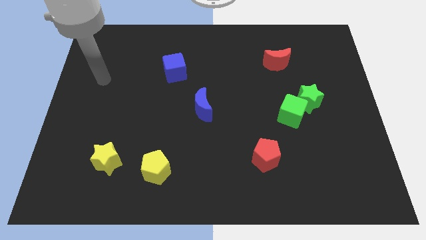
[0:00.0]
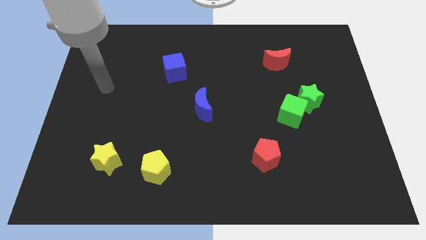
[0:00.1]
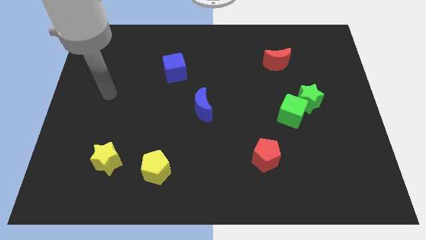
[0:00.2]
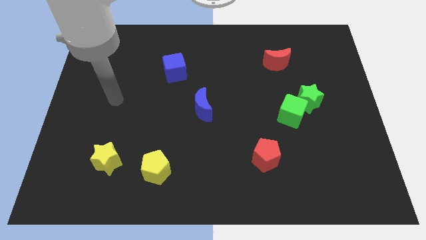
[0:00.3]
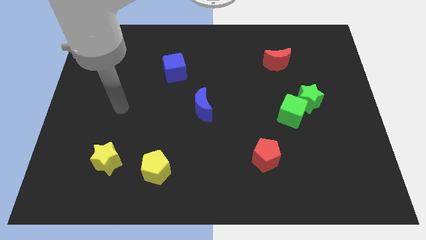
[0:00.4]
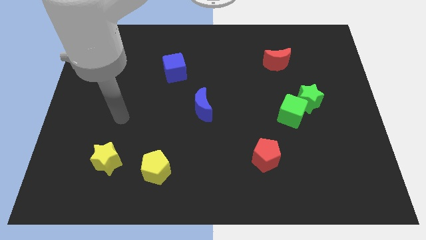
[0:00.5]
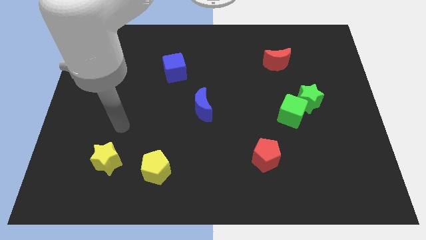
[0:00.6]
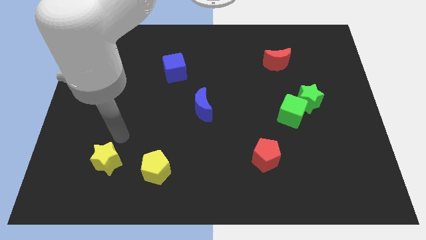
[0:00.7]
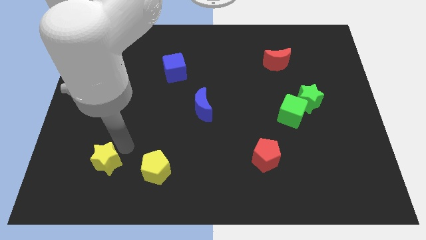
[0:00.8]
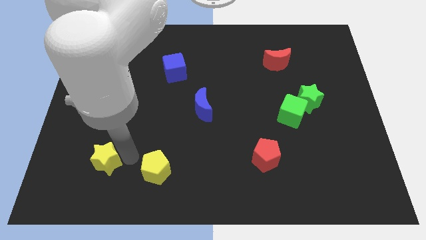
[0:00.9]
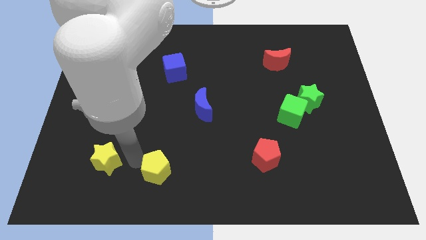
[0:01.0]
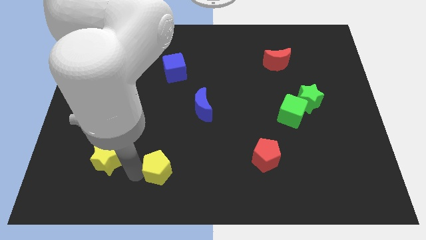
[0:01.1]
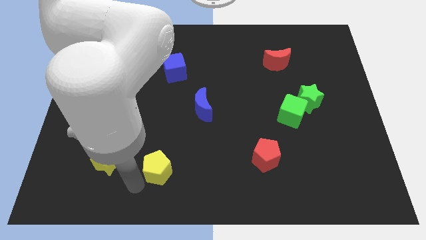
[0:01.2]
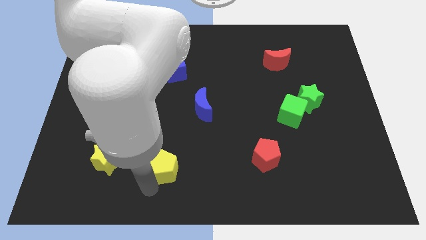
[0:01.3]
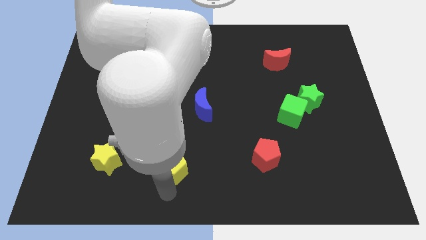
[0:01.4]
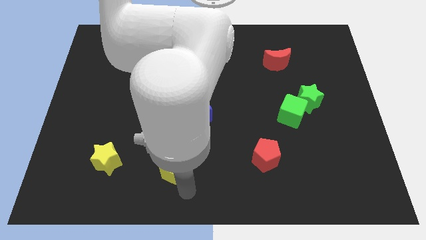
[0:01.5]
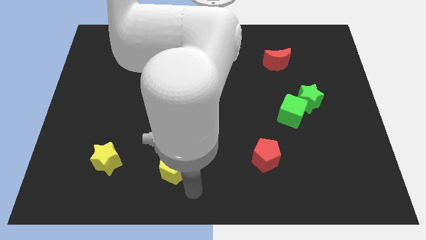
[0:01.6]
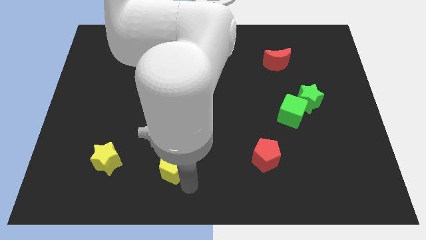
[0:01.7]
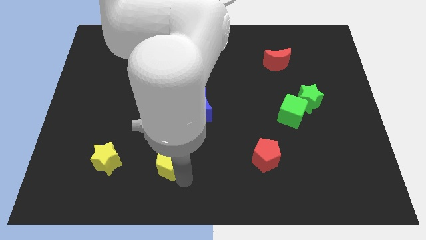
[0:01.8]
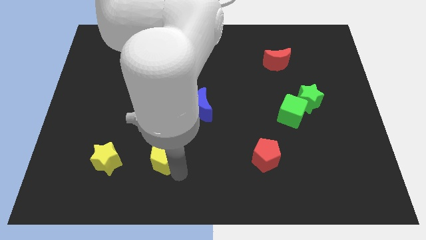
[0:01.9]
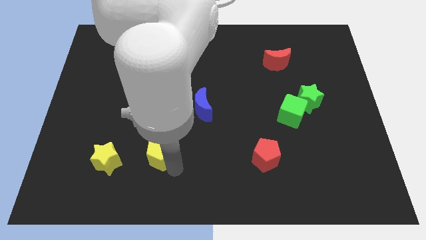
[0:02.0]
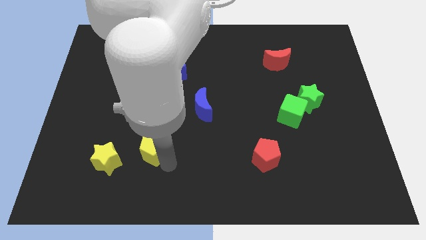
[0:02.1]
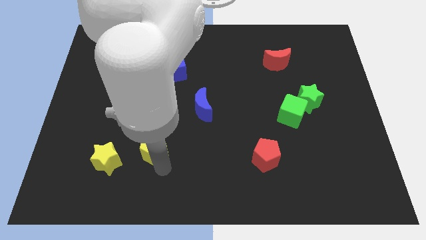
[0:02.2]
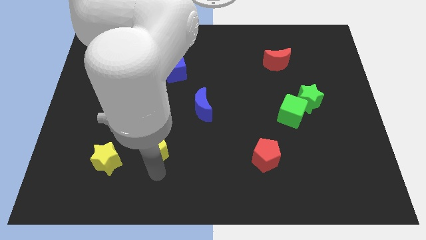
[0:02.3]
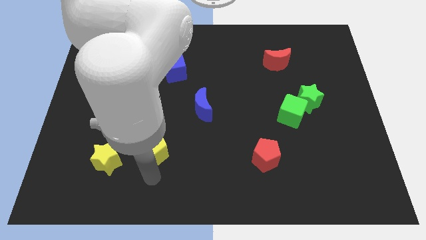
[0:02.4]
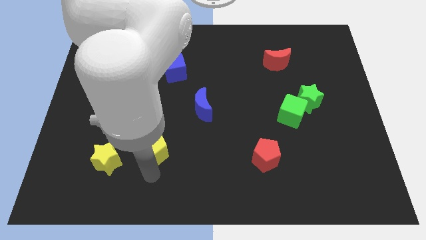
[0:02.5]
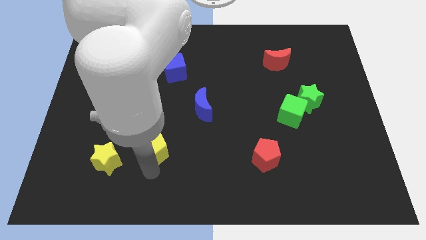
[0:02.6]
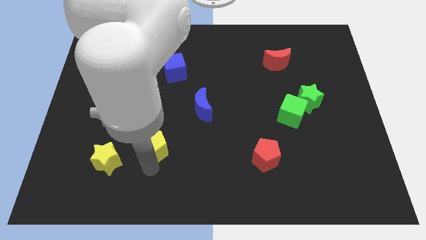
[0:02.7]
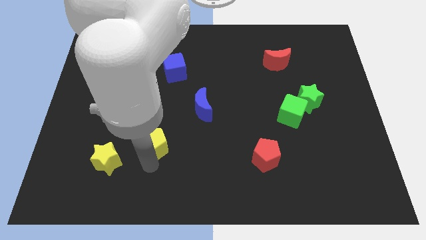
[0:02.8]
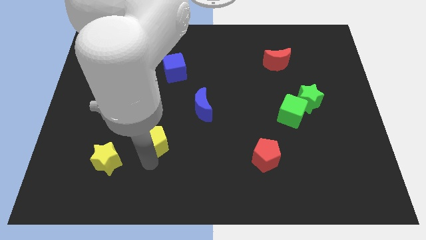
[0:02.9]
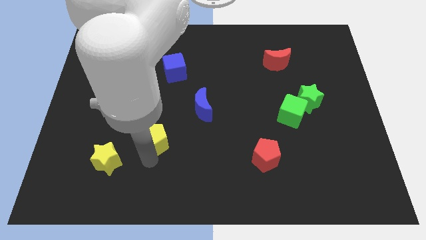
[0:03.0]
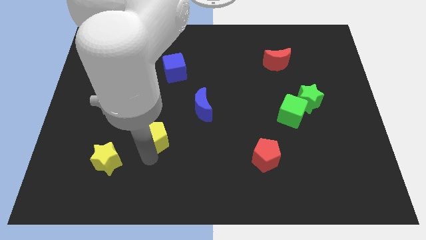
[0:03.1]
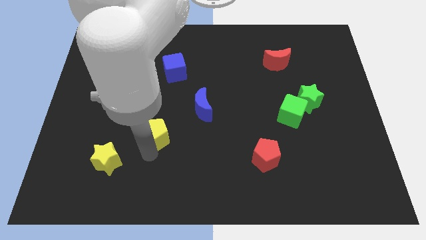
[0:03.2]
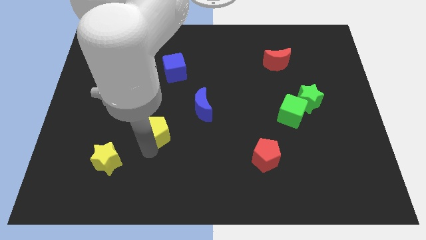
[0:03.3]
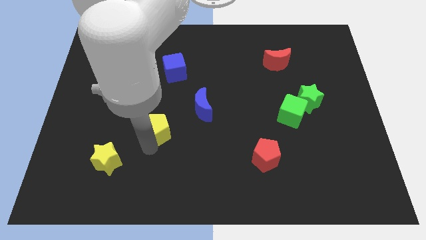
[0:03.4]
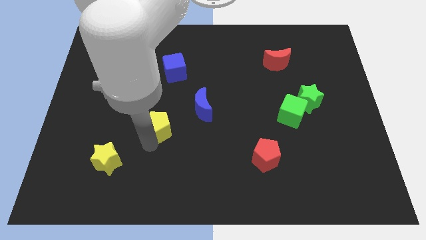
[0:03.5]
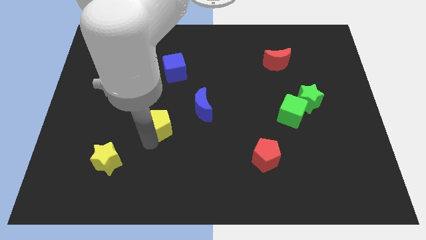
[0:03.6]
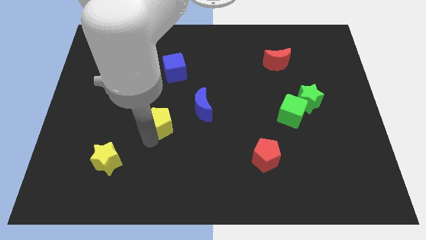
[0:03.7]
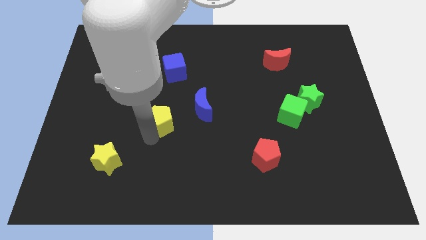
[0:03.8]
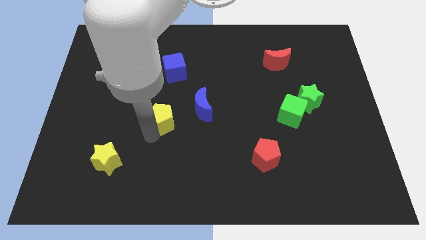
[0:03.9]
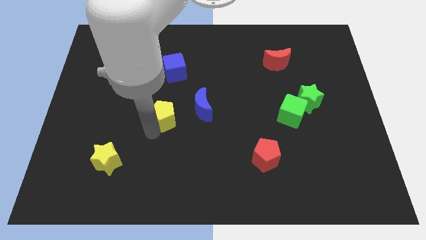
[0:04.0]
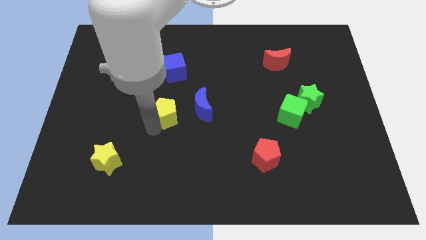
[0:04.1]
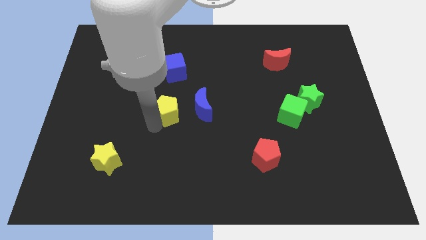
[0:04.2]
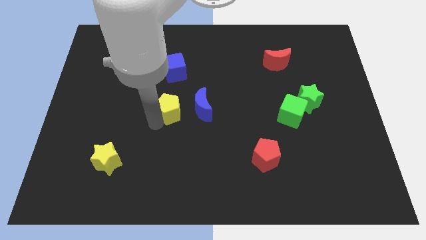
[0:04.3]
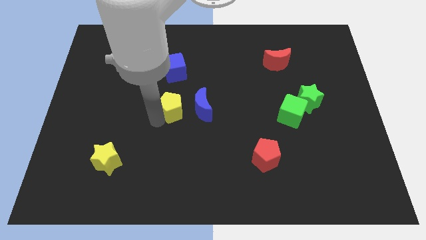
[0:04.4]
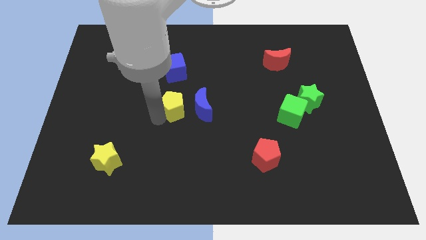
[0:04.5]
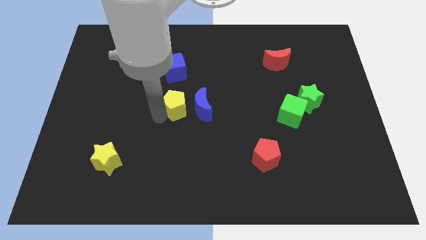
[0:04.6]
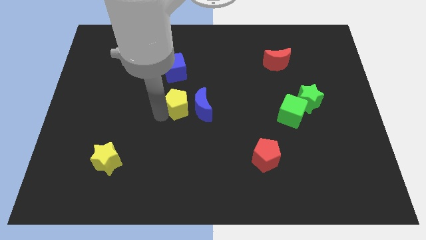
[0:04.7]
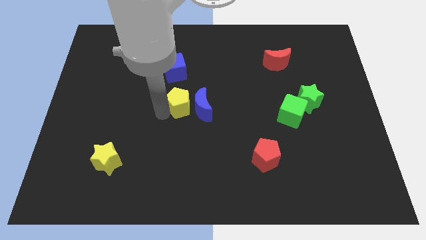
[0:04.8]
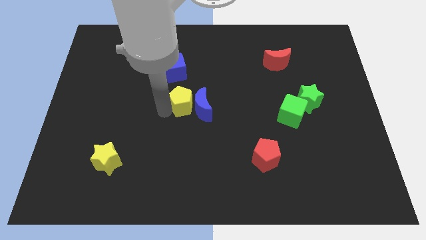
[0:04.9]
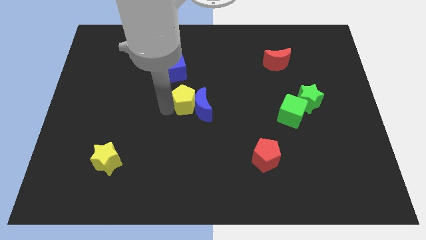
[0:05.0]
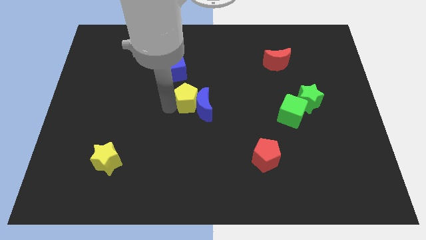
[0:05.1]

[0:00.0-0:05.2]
put the yellow pentagon diagonally down and to the right of the blue cube

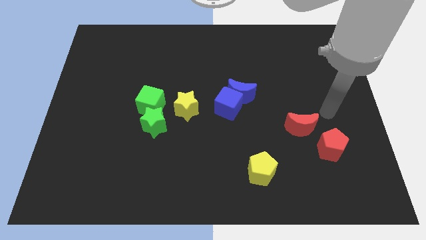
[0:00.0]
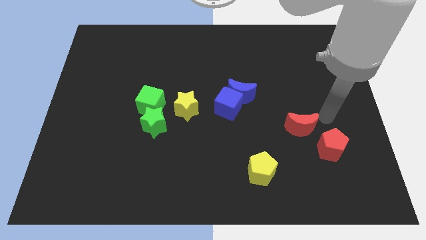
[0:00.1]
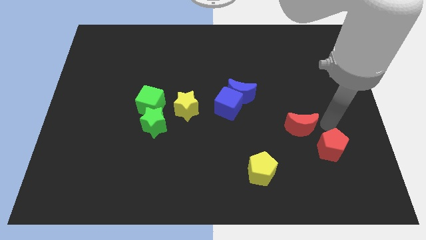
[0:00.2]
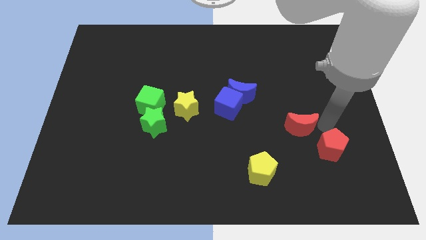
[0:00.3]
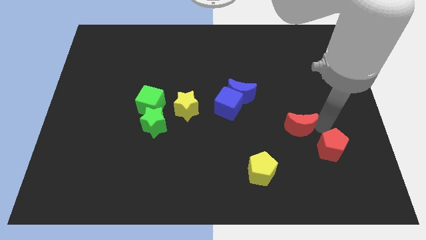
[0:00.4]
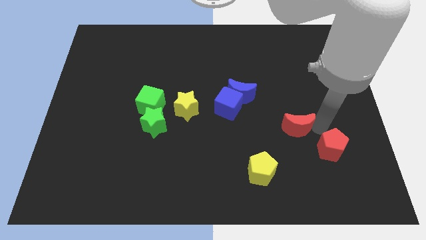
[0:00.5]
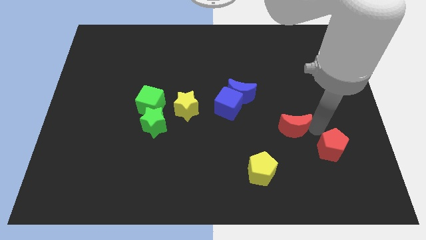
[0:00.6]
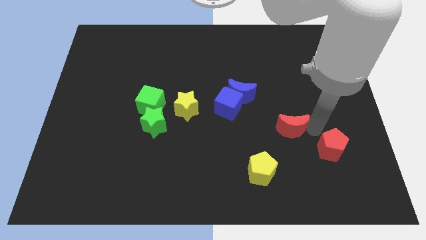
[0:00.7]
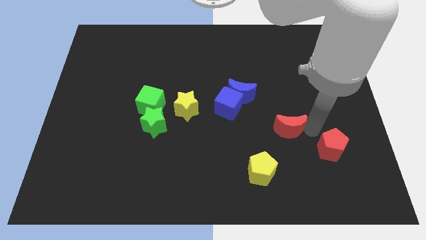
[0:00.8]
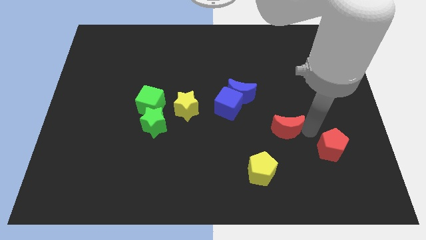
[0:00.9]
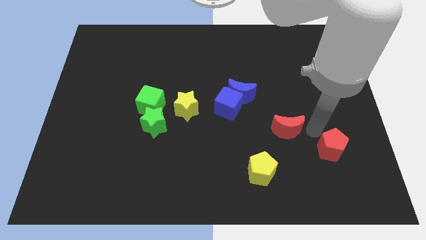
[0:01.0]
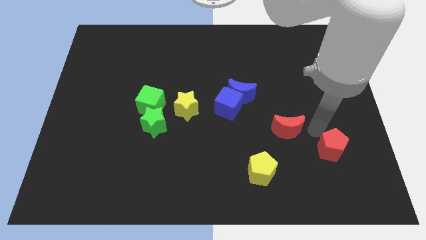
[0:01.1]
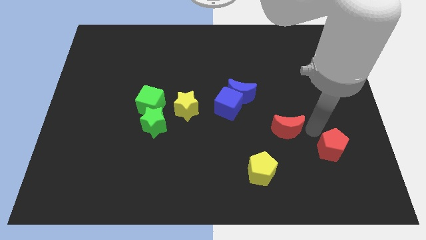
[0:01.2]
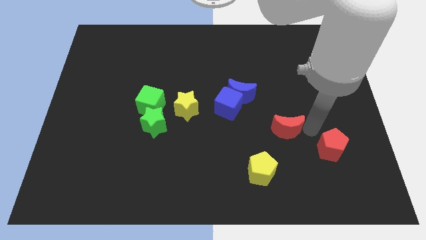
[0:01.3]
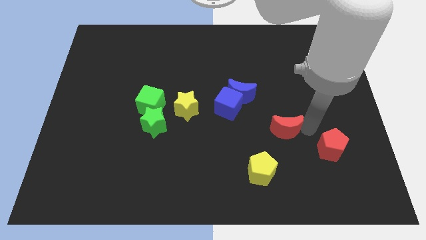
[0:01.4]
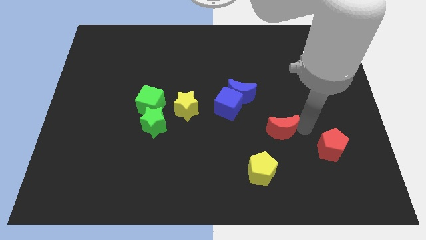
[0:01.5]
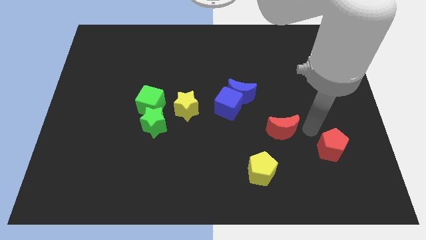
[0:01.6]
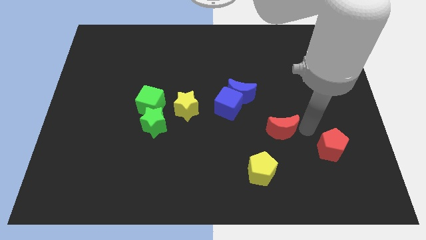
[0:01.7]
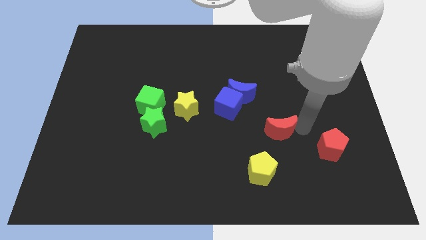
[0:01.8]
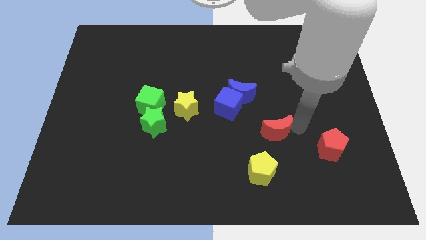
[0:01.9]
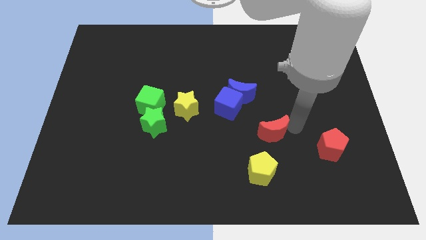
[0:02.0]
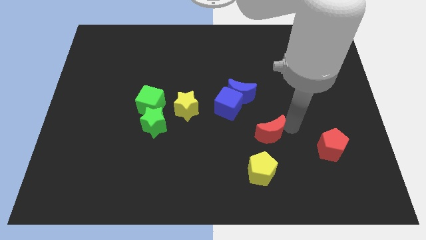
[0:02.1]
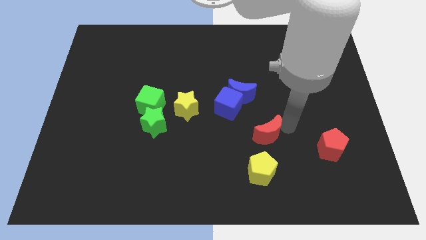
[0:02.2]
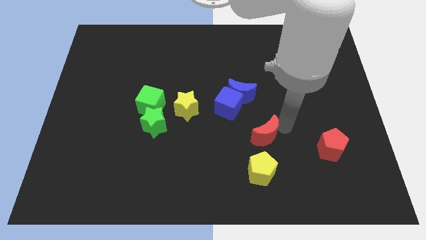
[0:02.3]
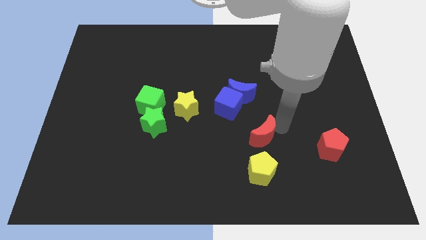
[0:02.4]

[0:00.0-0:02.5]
move the red moon to the bottom side of the blue moon

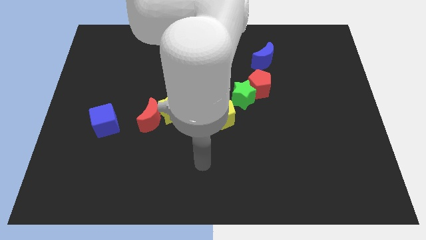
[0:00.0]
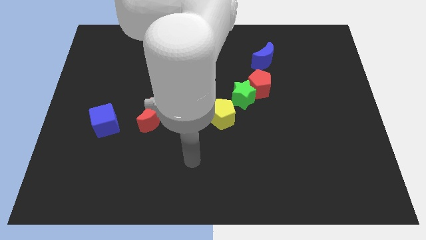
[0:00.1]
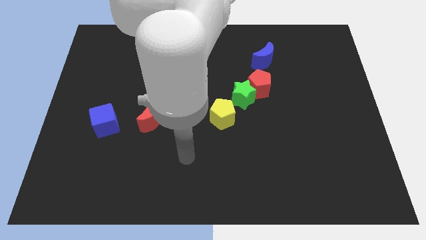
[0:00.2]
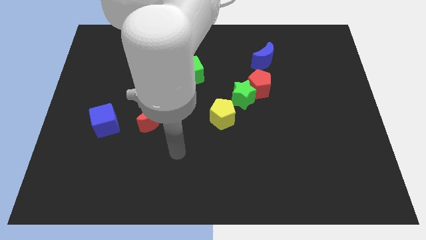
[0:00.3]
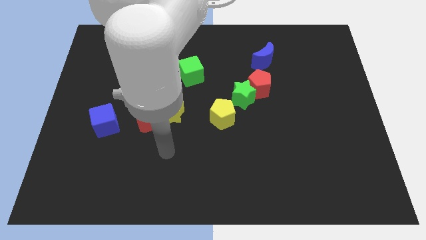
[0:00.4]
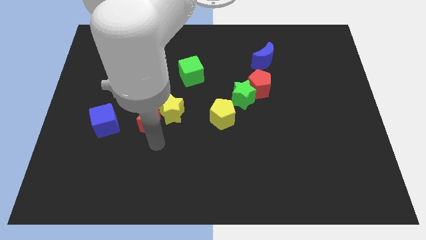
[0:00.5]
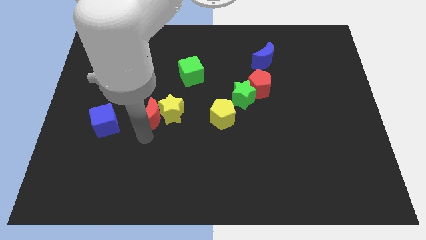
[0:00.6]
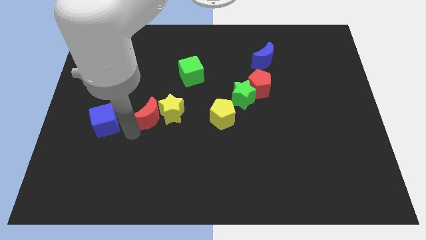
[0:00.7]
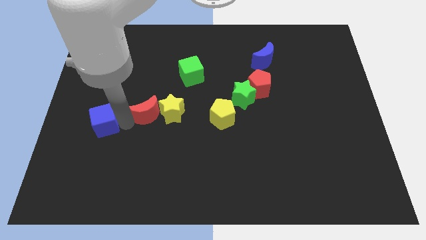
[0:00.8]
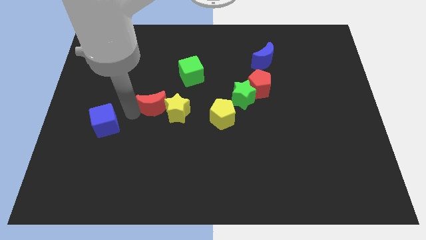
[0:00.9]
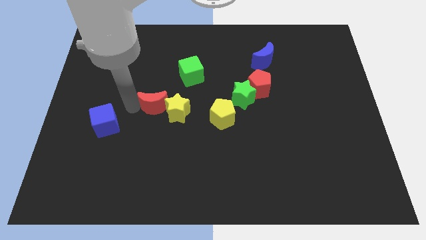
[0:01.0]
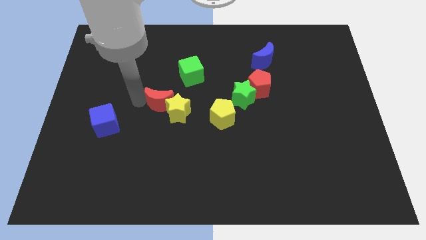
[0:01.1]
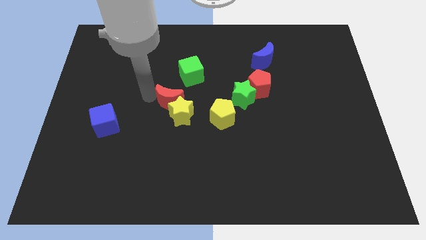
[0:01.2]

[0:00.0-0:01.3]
put the yellow star to the bottom of the red moon
